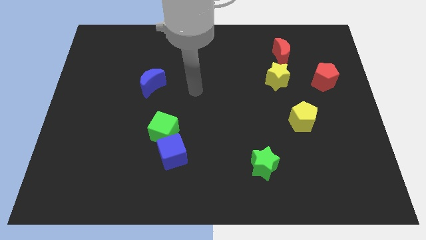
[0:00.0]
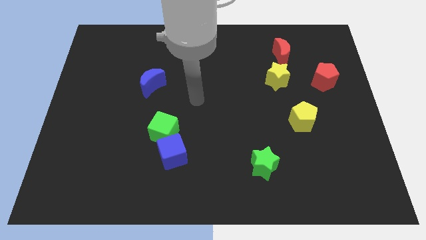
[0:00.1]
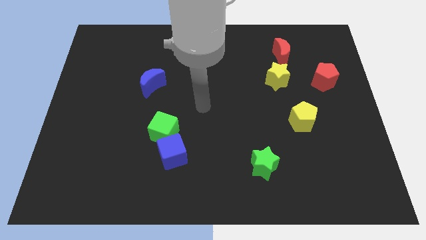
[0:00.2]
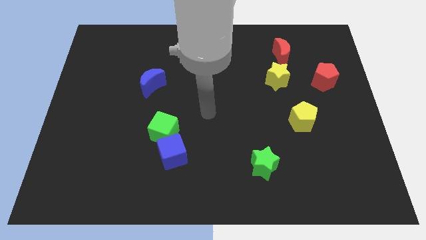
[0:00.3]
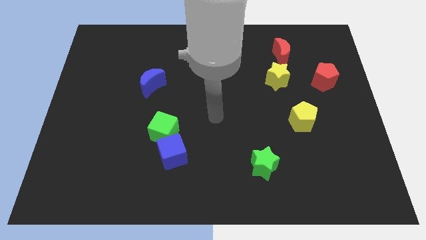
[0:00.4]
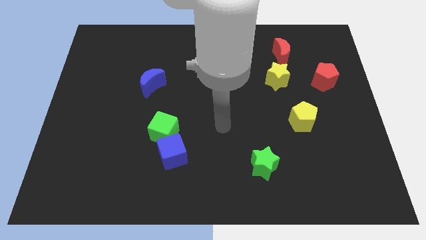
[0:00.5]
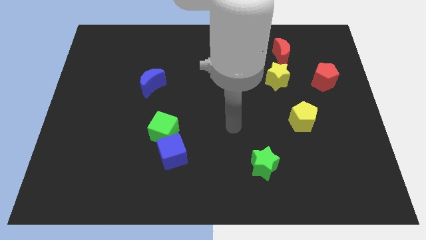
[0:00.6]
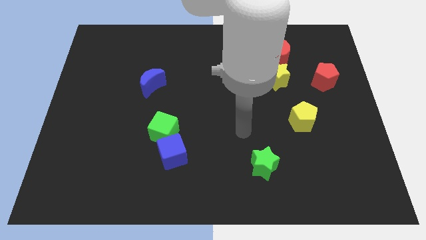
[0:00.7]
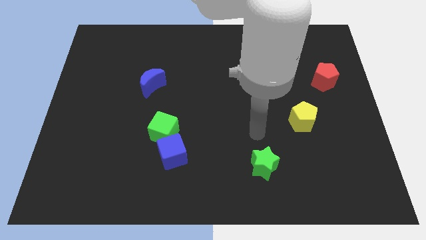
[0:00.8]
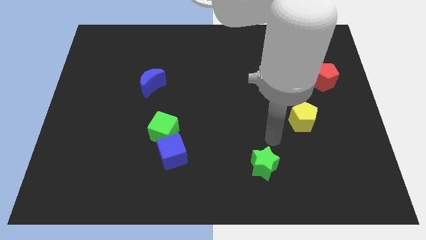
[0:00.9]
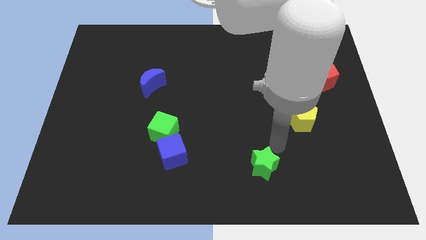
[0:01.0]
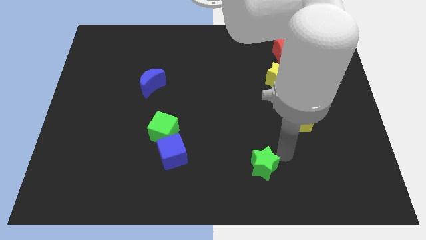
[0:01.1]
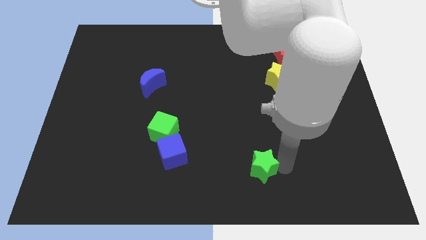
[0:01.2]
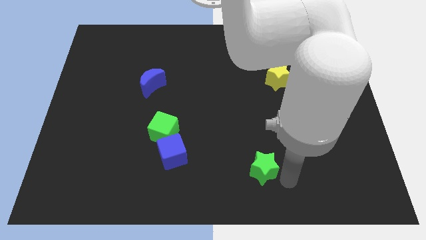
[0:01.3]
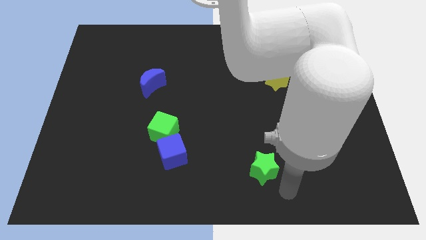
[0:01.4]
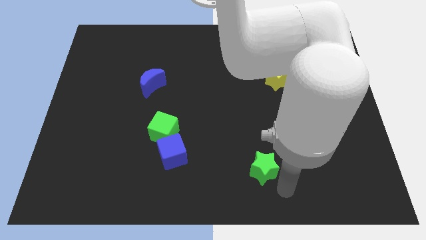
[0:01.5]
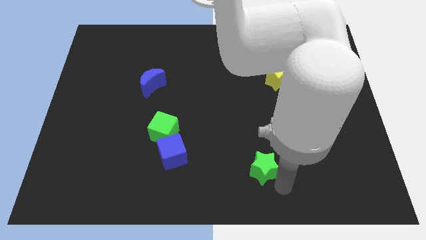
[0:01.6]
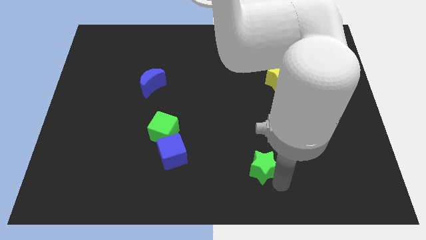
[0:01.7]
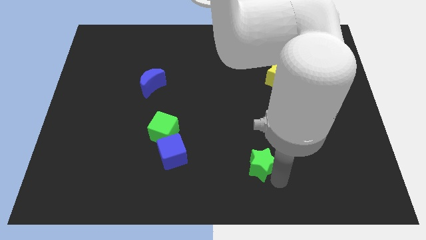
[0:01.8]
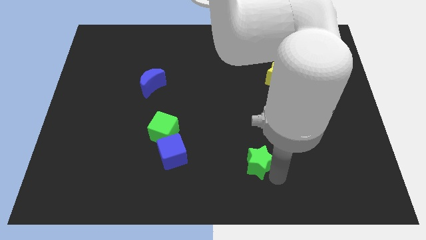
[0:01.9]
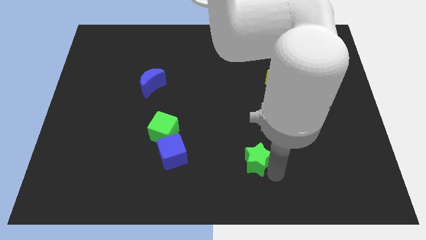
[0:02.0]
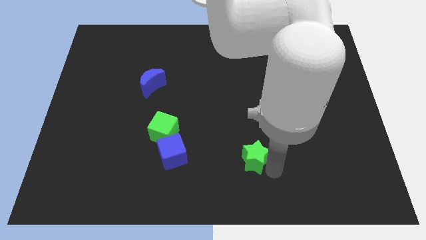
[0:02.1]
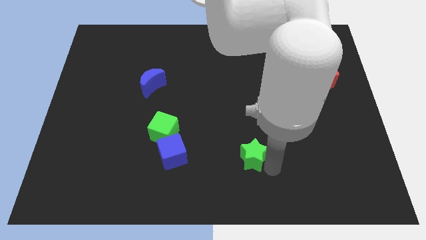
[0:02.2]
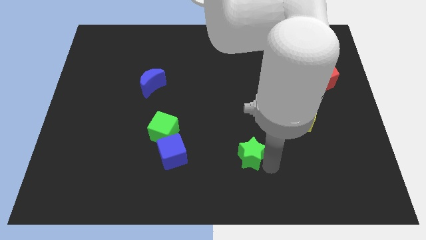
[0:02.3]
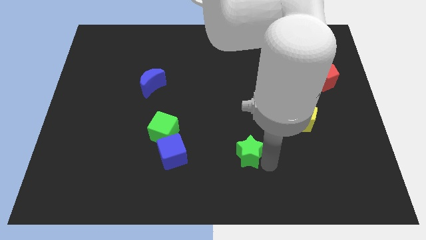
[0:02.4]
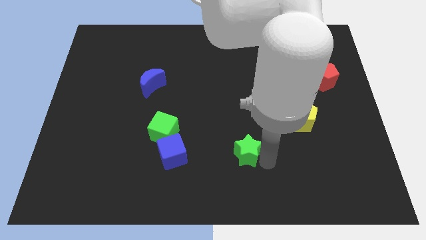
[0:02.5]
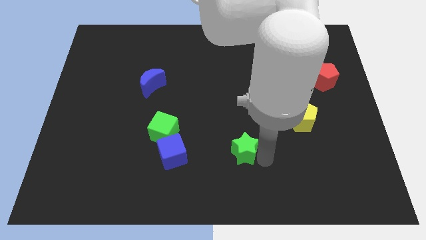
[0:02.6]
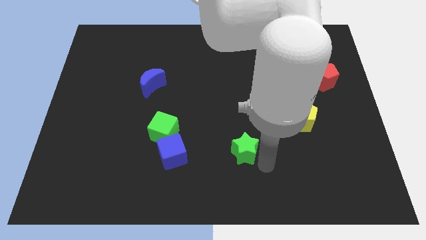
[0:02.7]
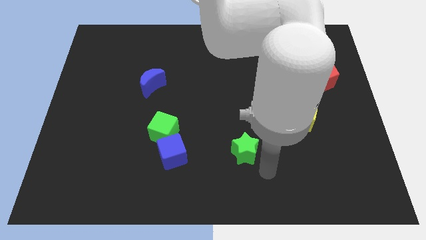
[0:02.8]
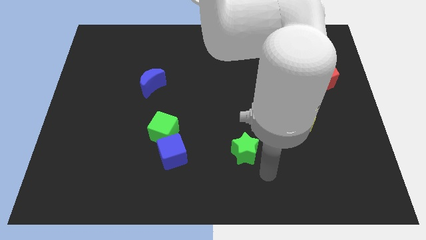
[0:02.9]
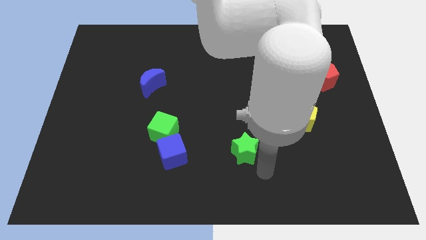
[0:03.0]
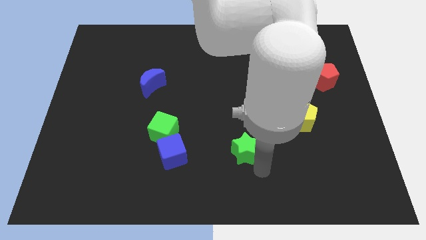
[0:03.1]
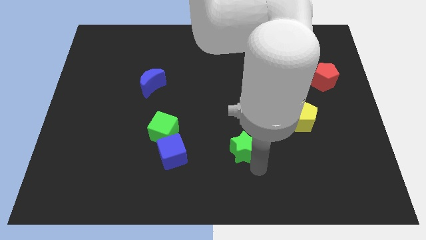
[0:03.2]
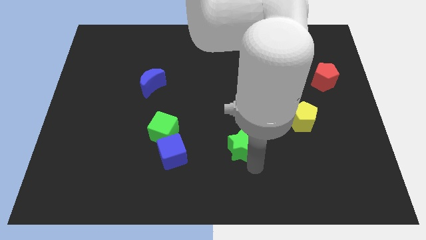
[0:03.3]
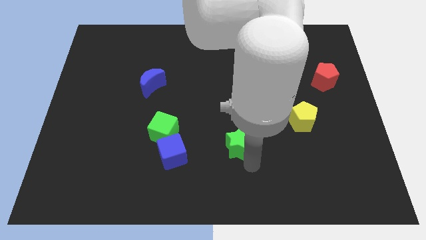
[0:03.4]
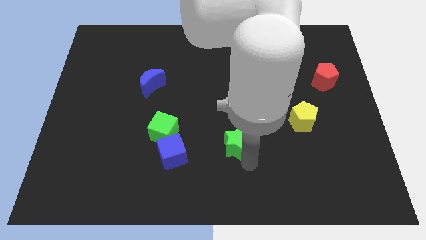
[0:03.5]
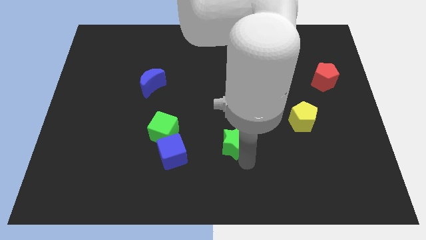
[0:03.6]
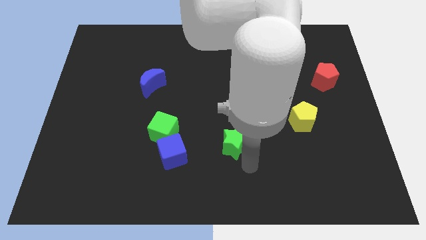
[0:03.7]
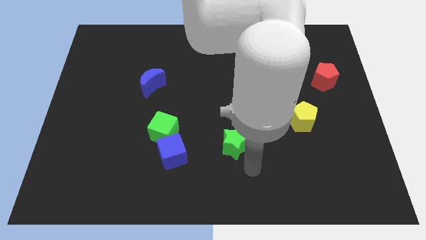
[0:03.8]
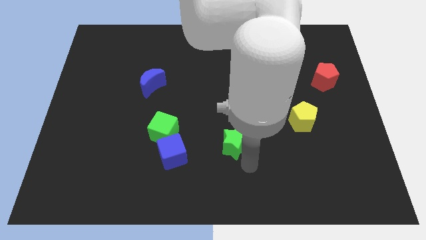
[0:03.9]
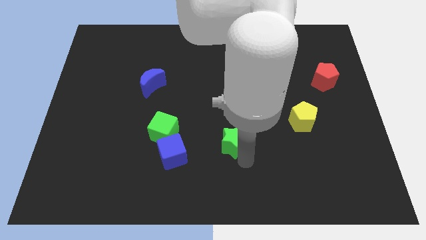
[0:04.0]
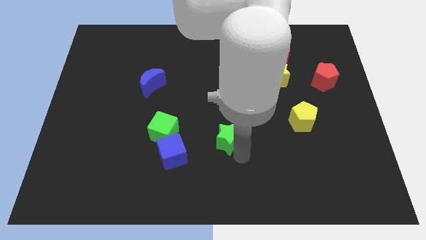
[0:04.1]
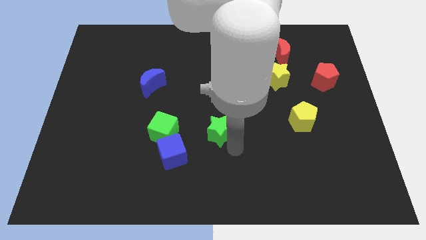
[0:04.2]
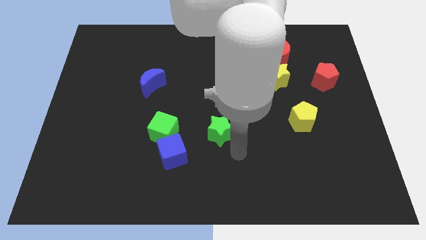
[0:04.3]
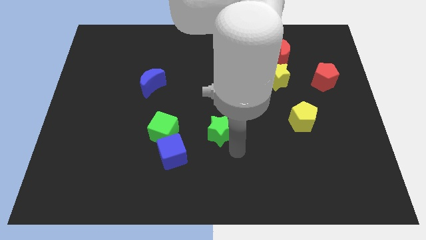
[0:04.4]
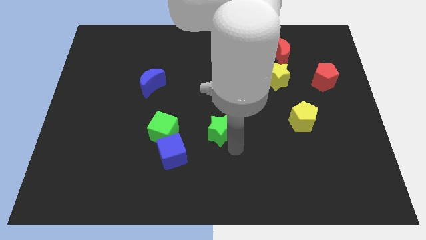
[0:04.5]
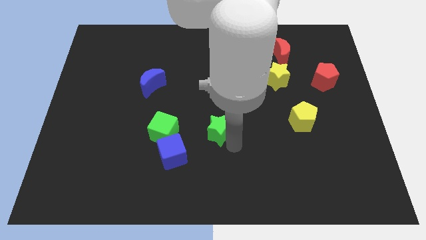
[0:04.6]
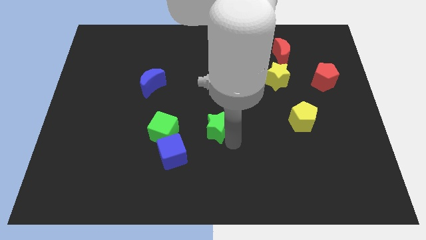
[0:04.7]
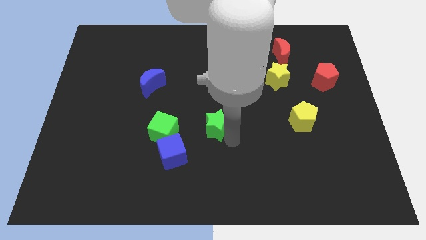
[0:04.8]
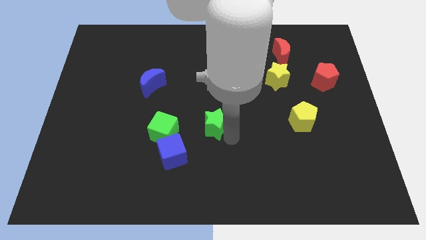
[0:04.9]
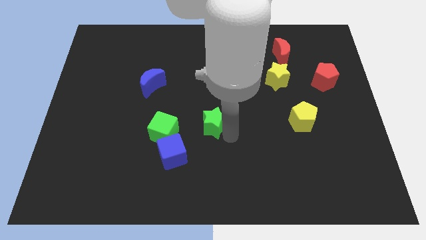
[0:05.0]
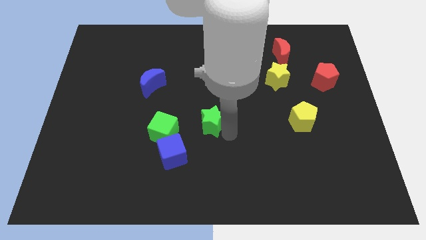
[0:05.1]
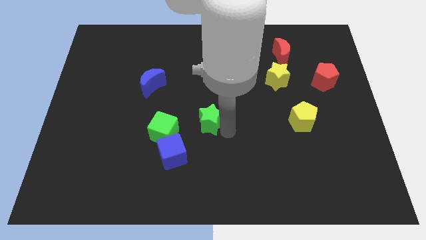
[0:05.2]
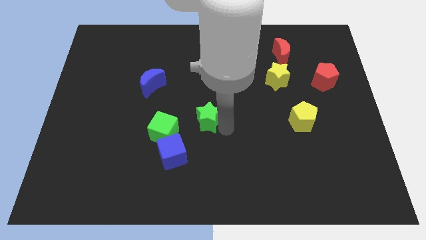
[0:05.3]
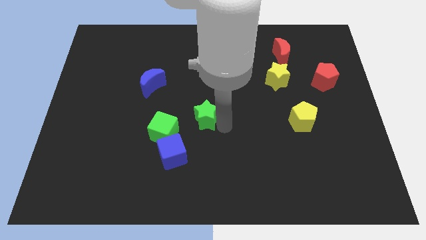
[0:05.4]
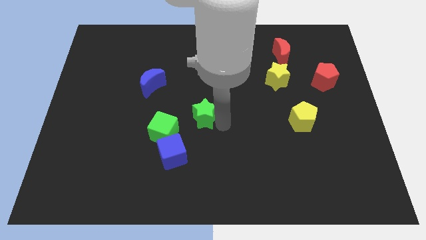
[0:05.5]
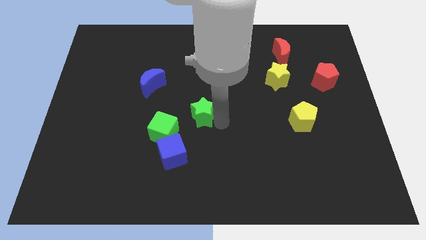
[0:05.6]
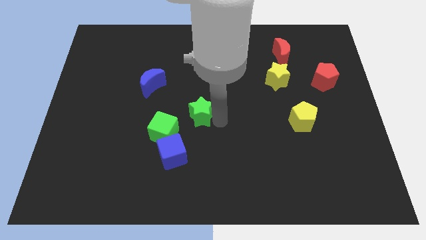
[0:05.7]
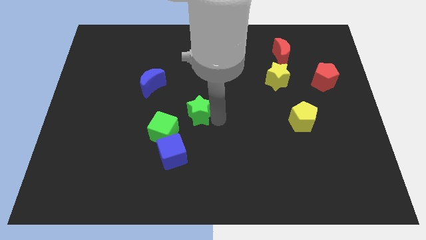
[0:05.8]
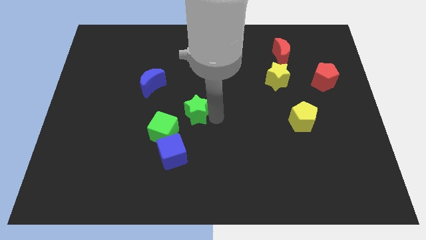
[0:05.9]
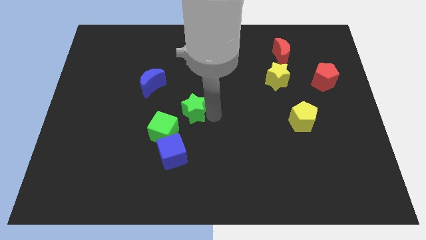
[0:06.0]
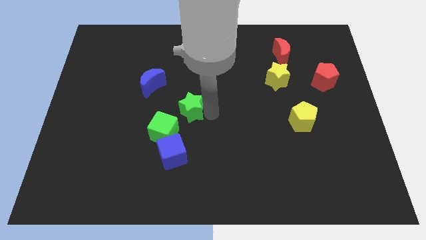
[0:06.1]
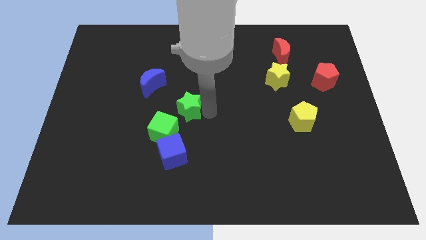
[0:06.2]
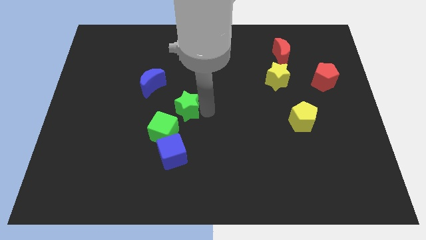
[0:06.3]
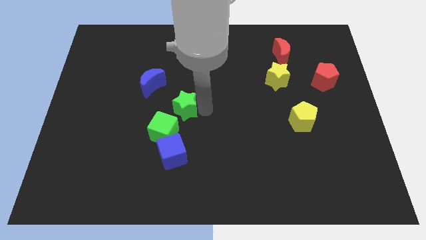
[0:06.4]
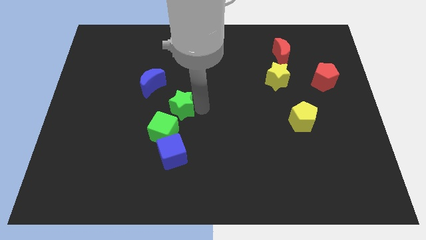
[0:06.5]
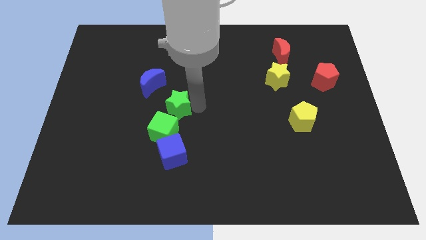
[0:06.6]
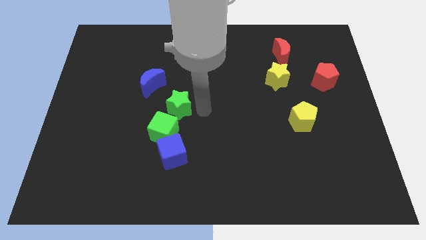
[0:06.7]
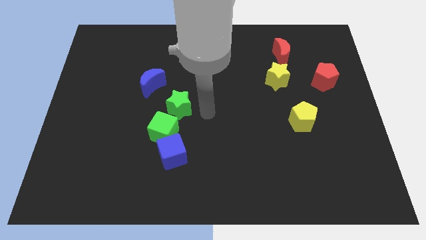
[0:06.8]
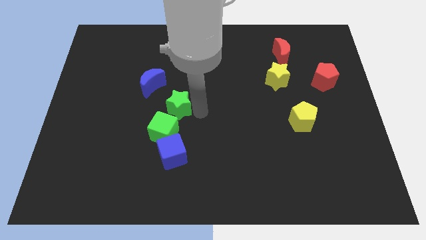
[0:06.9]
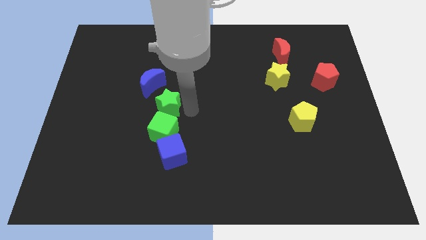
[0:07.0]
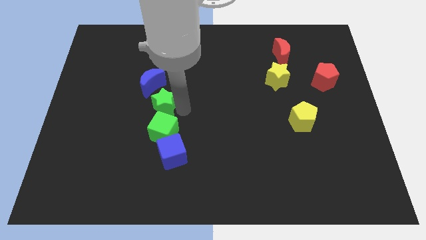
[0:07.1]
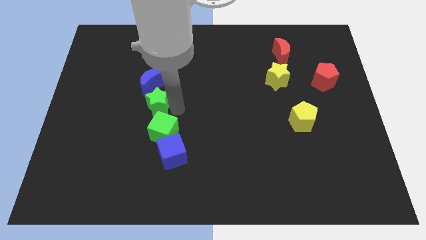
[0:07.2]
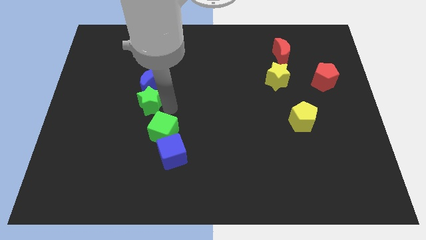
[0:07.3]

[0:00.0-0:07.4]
put the green star diagonally down and to the left of the blue moon
